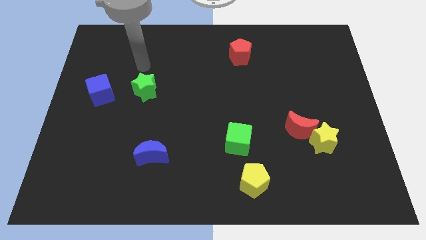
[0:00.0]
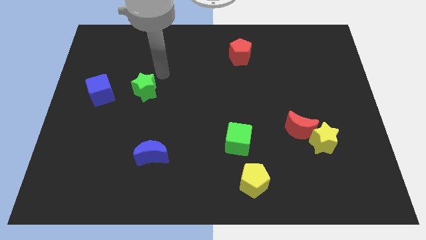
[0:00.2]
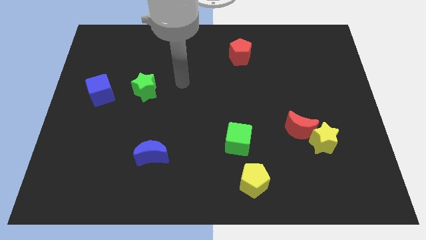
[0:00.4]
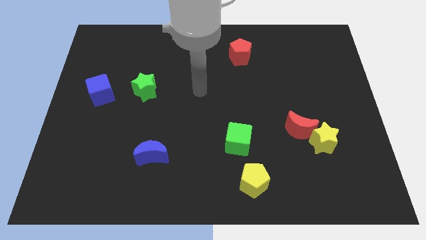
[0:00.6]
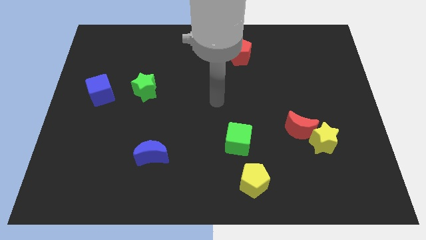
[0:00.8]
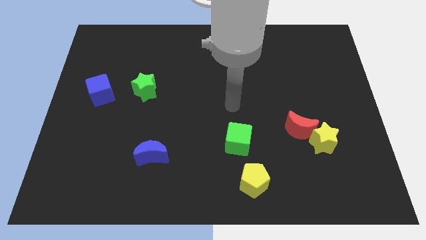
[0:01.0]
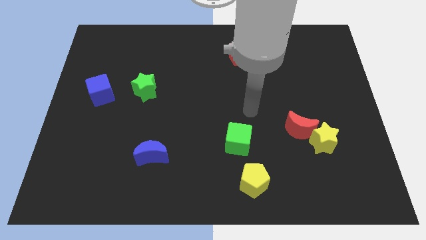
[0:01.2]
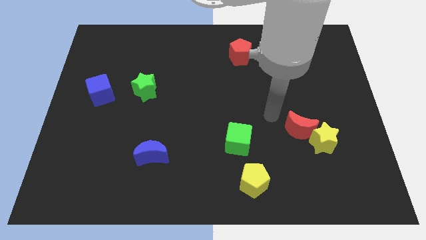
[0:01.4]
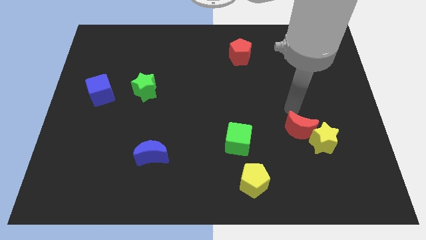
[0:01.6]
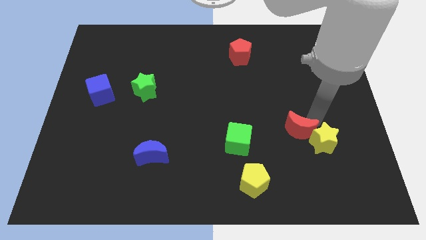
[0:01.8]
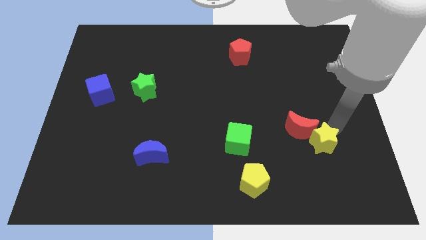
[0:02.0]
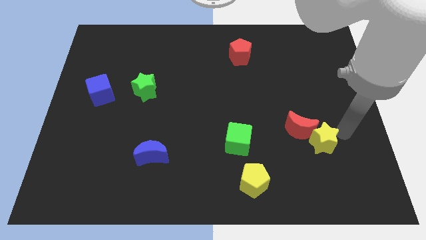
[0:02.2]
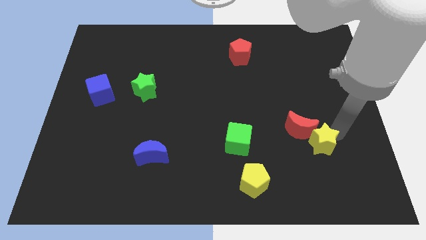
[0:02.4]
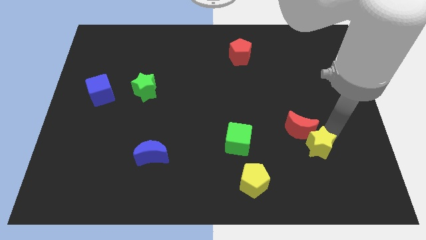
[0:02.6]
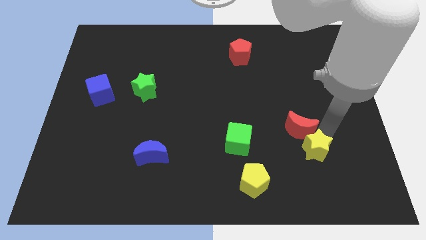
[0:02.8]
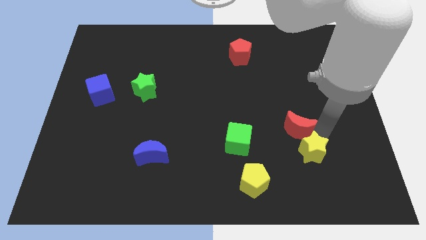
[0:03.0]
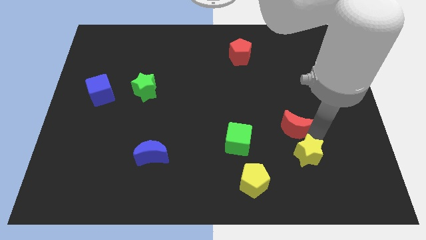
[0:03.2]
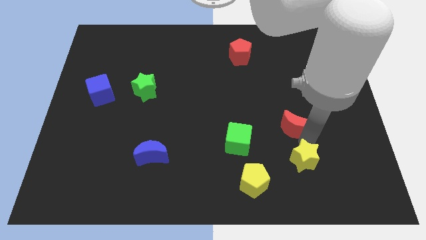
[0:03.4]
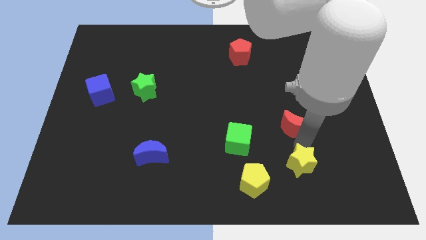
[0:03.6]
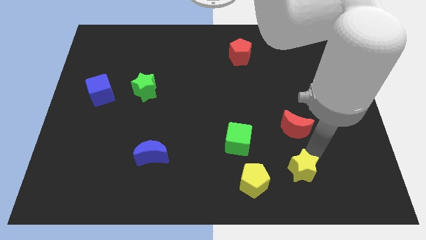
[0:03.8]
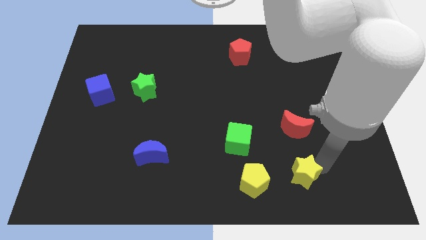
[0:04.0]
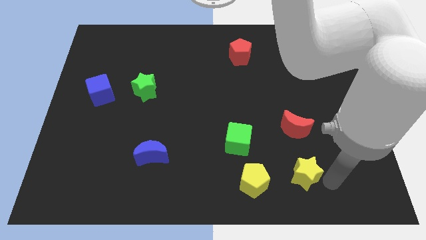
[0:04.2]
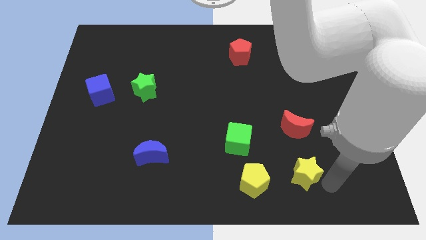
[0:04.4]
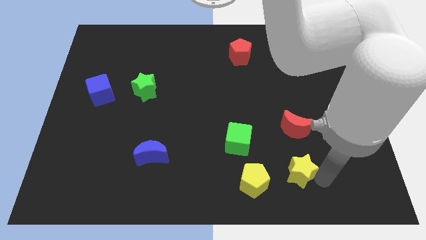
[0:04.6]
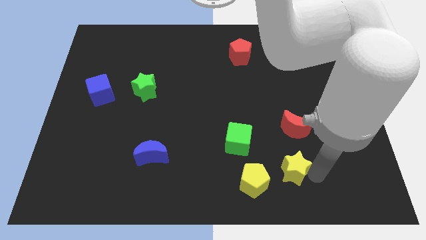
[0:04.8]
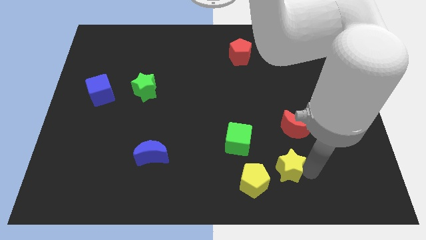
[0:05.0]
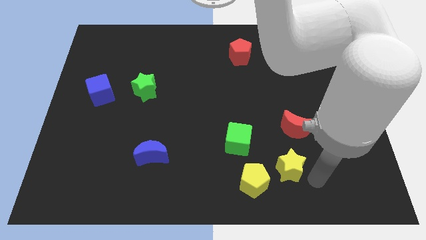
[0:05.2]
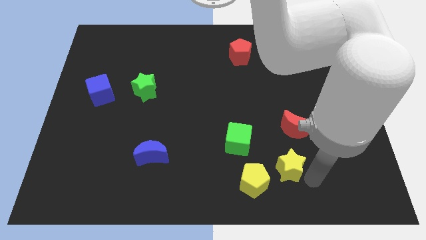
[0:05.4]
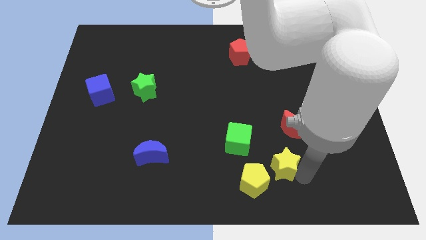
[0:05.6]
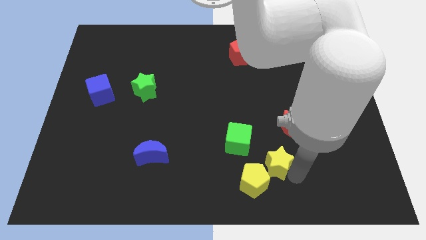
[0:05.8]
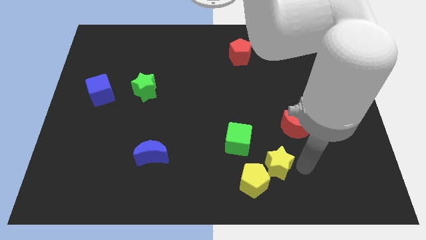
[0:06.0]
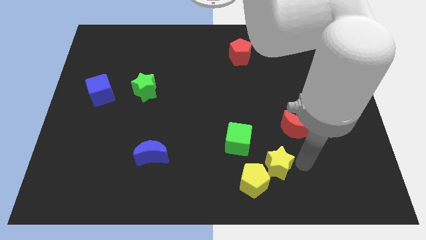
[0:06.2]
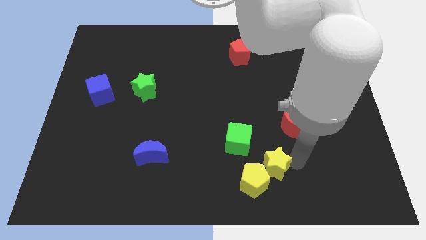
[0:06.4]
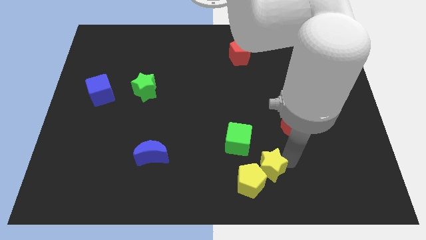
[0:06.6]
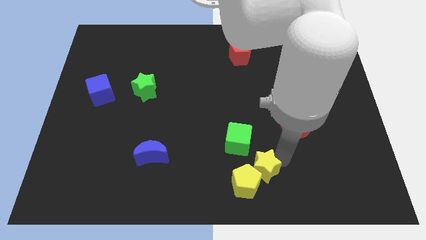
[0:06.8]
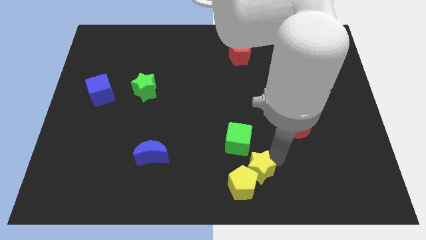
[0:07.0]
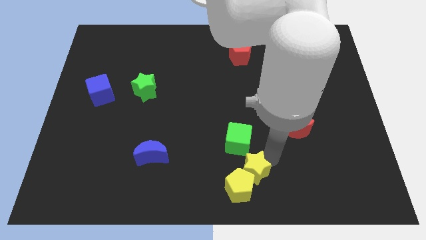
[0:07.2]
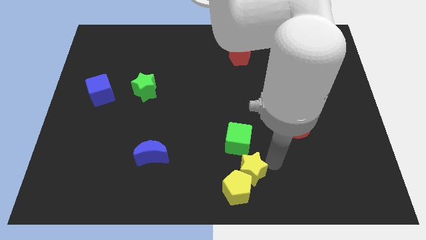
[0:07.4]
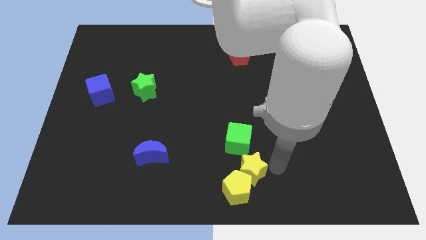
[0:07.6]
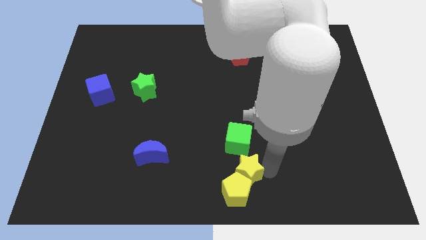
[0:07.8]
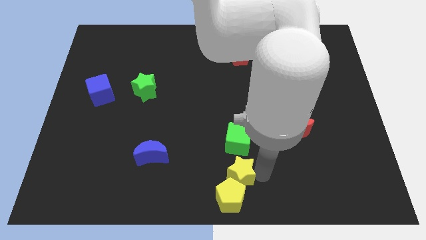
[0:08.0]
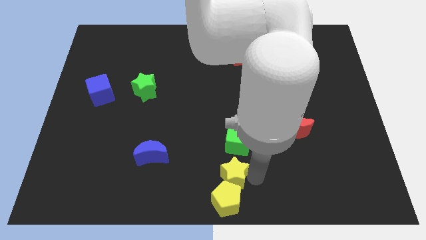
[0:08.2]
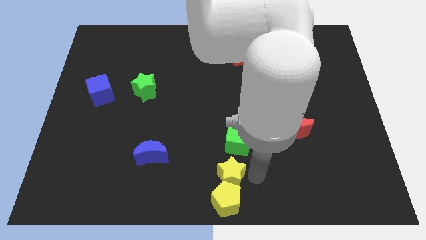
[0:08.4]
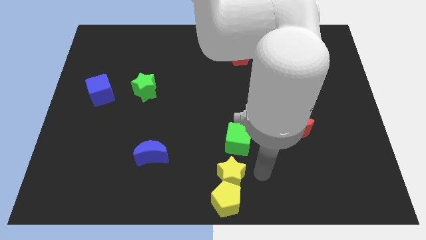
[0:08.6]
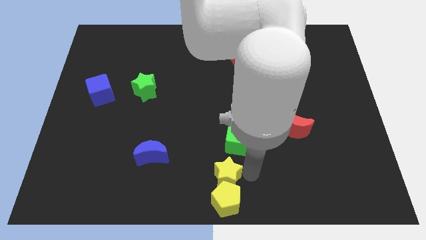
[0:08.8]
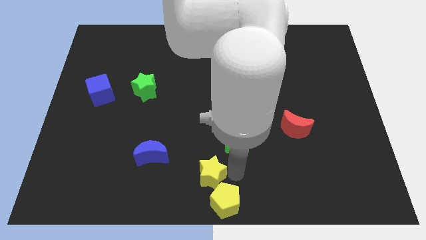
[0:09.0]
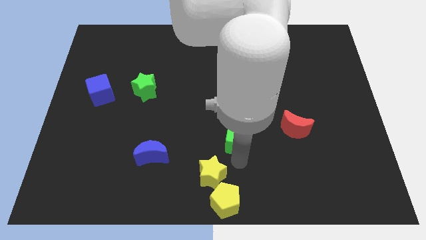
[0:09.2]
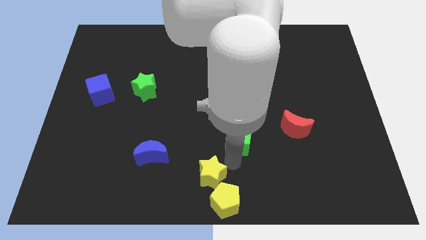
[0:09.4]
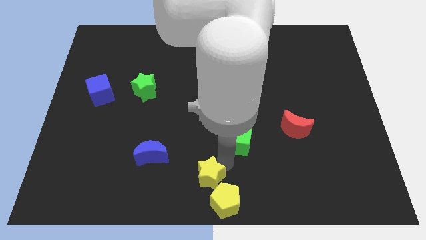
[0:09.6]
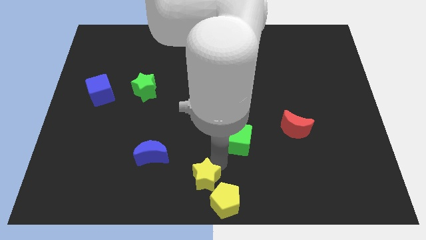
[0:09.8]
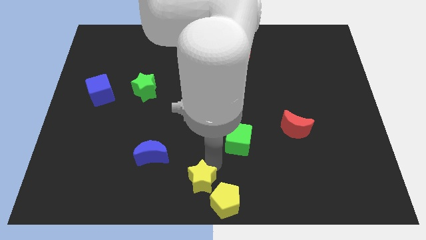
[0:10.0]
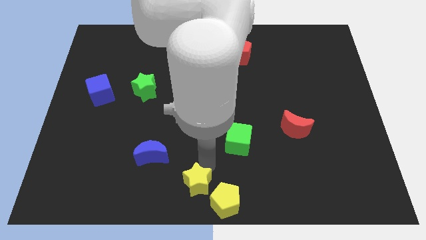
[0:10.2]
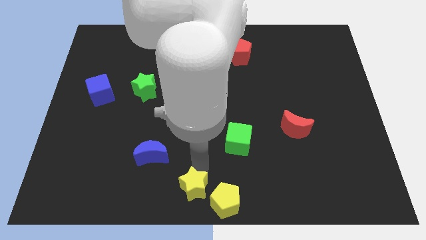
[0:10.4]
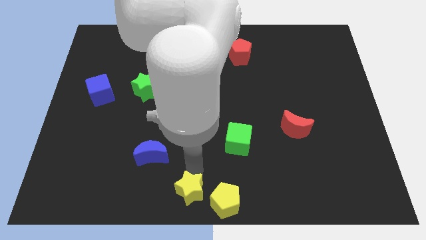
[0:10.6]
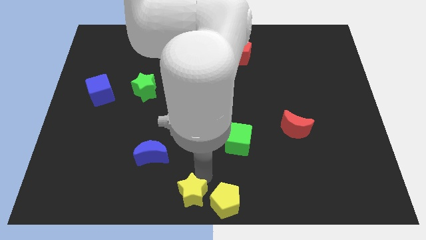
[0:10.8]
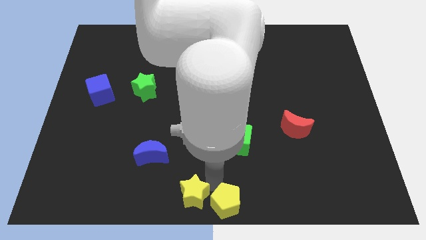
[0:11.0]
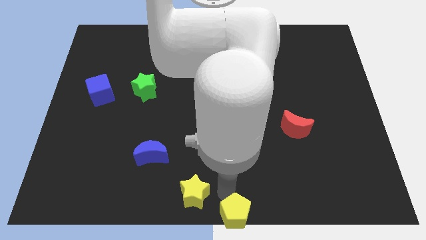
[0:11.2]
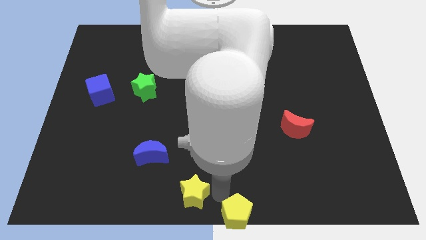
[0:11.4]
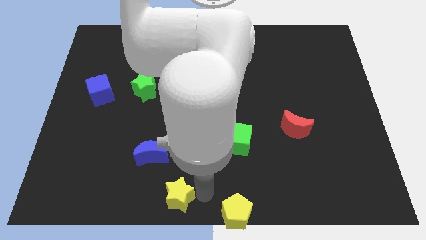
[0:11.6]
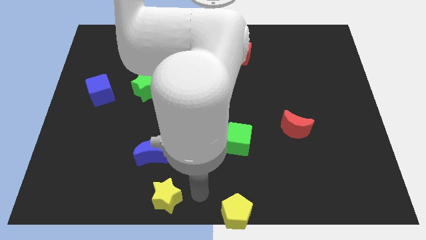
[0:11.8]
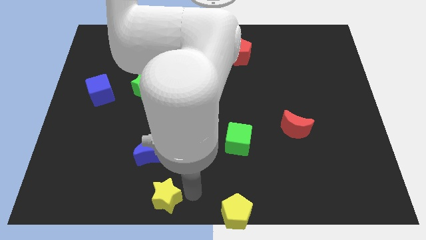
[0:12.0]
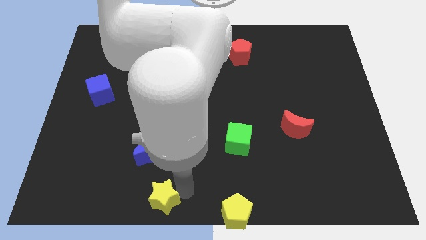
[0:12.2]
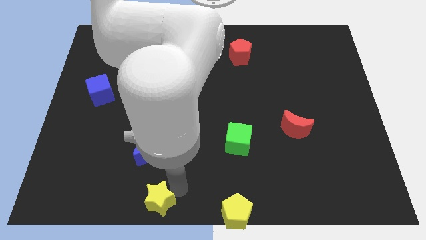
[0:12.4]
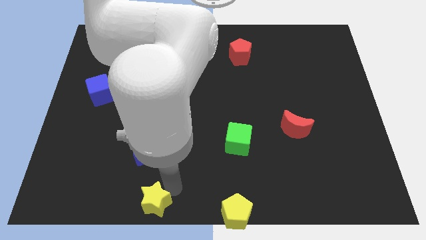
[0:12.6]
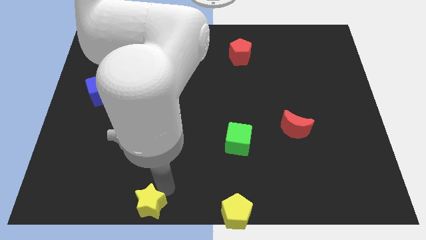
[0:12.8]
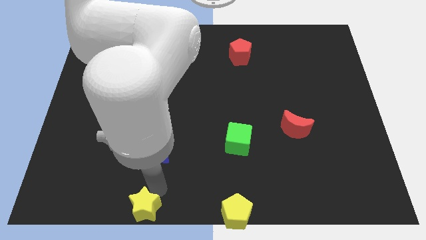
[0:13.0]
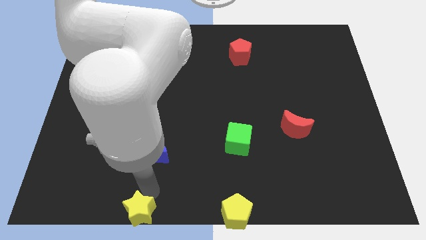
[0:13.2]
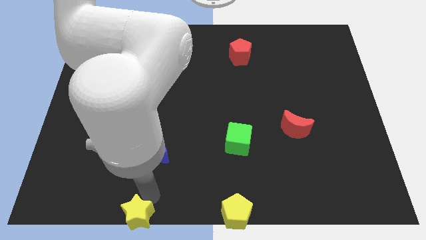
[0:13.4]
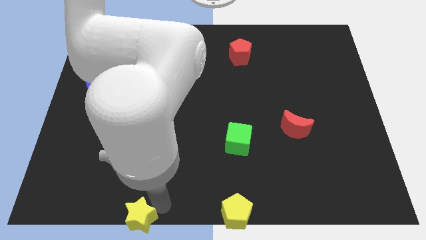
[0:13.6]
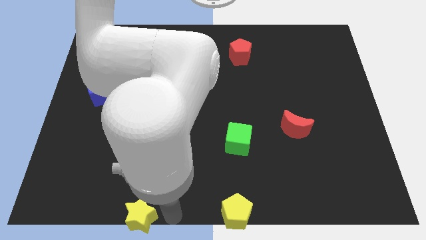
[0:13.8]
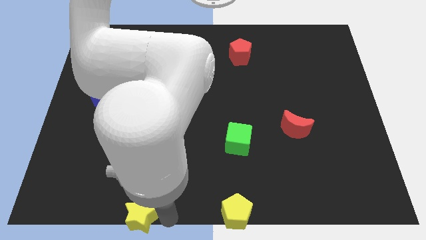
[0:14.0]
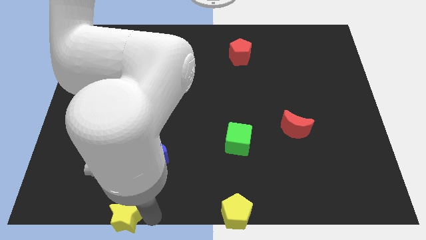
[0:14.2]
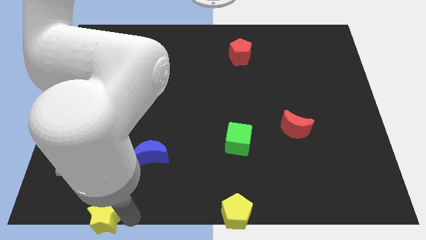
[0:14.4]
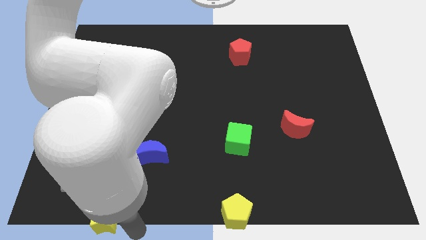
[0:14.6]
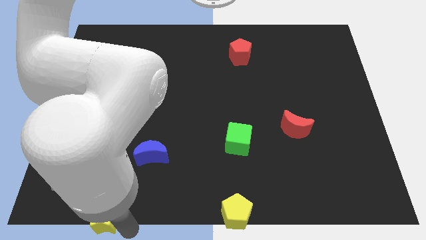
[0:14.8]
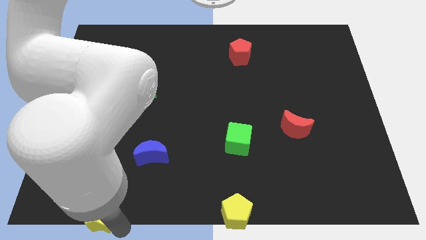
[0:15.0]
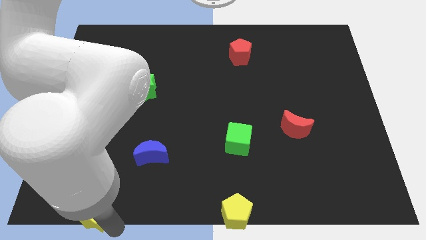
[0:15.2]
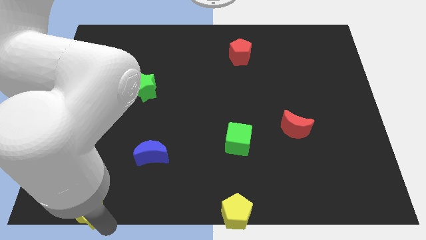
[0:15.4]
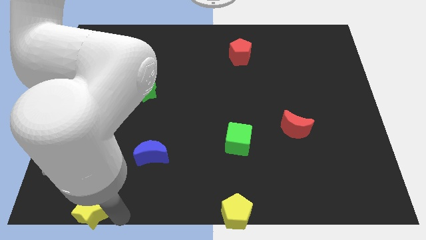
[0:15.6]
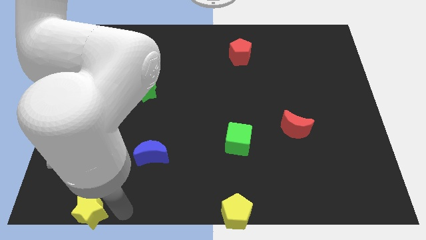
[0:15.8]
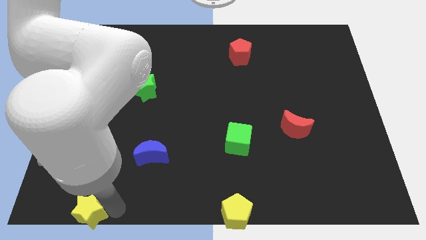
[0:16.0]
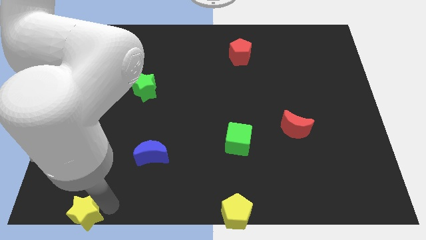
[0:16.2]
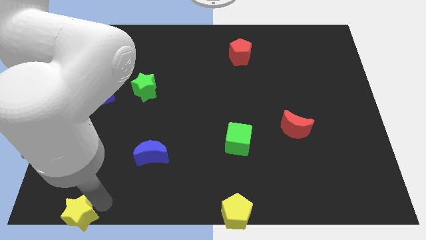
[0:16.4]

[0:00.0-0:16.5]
put the yellow star to the bottom left of the board
